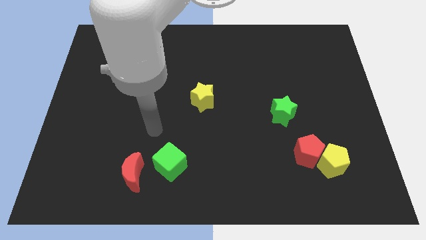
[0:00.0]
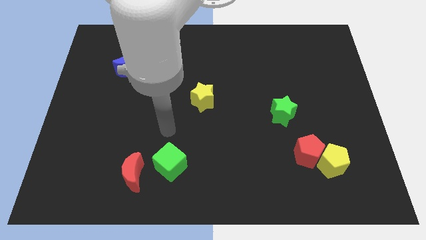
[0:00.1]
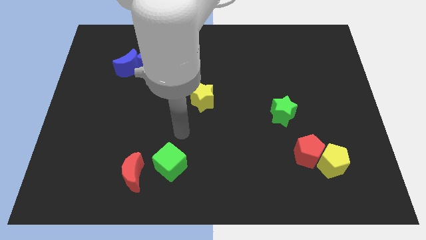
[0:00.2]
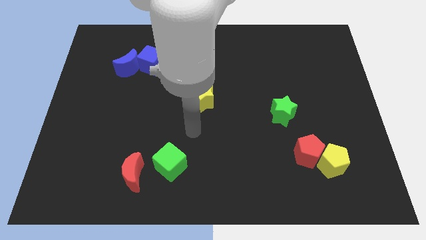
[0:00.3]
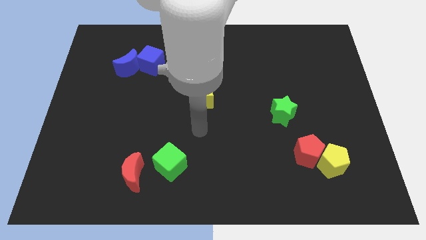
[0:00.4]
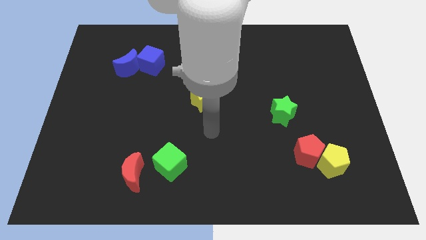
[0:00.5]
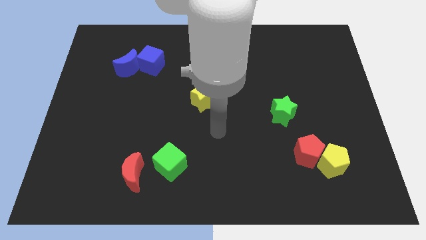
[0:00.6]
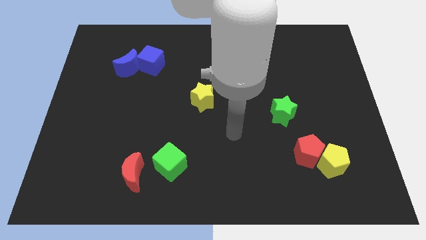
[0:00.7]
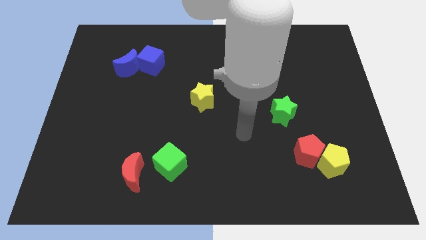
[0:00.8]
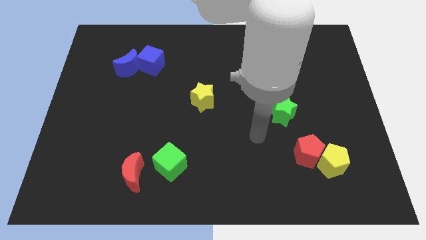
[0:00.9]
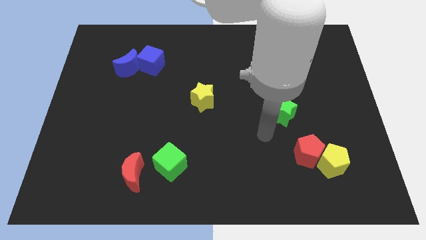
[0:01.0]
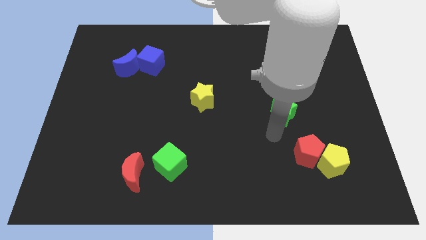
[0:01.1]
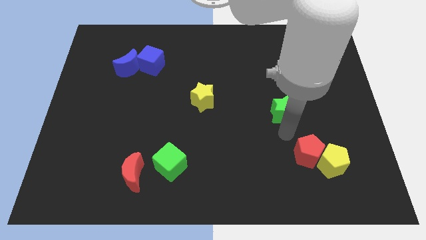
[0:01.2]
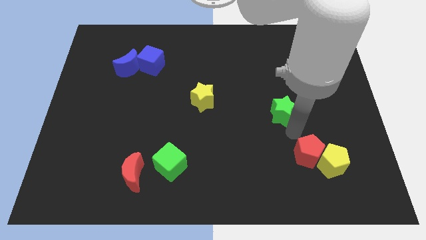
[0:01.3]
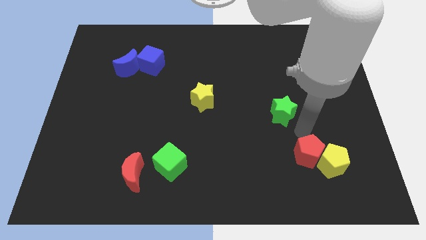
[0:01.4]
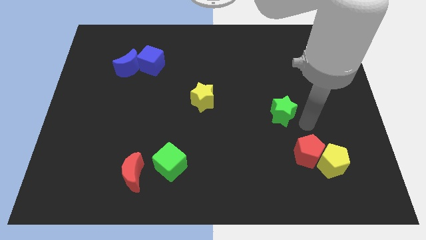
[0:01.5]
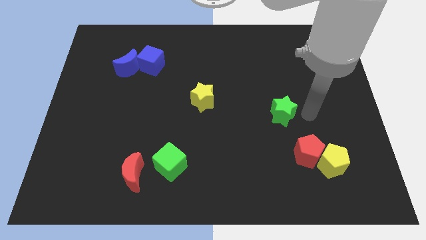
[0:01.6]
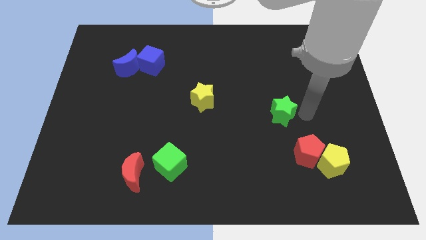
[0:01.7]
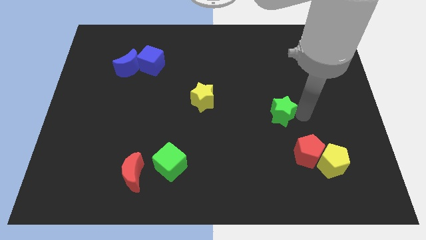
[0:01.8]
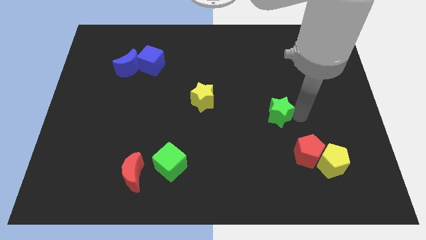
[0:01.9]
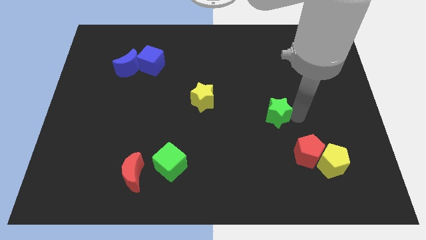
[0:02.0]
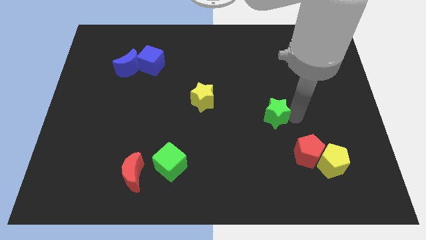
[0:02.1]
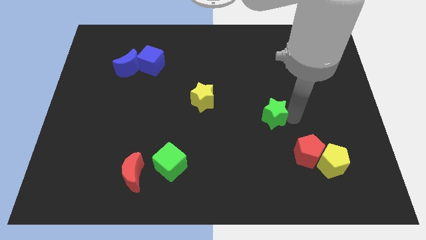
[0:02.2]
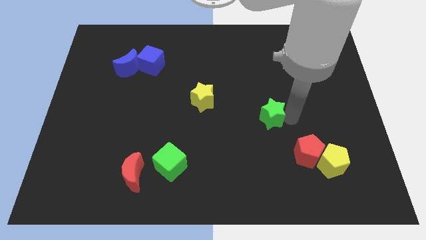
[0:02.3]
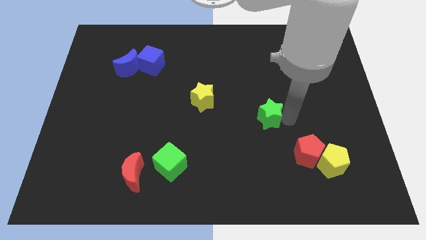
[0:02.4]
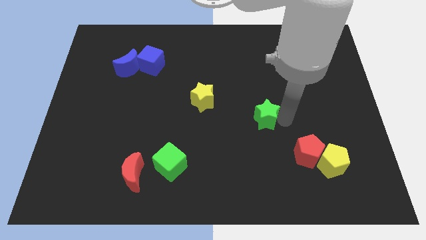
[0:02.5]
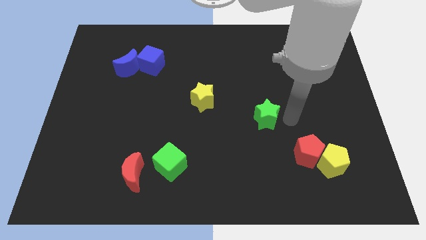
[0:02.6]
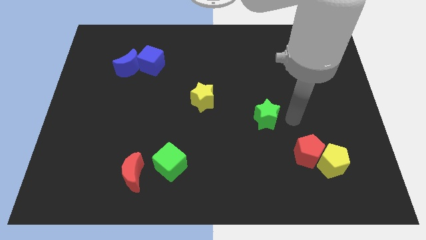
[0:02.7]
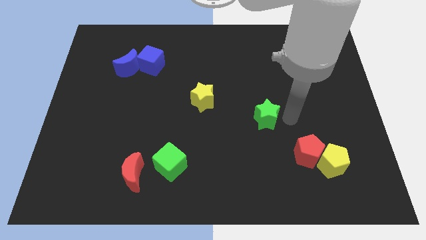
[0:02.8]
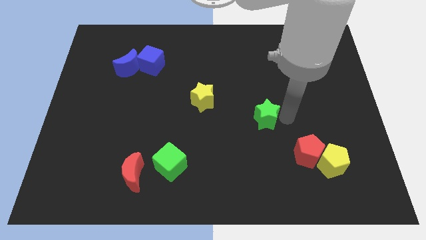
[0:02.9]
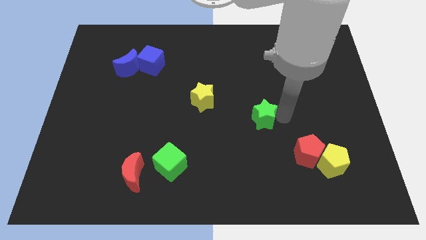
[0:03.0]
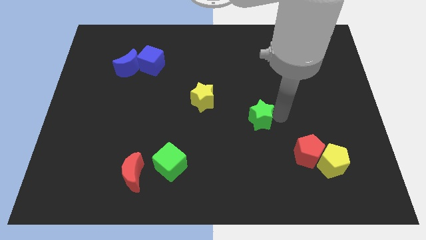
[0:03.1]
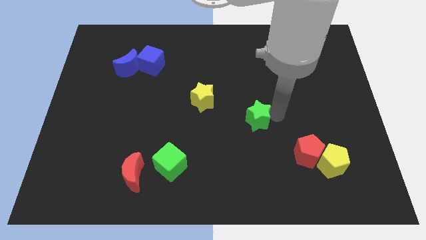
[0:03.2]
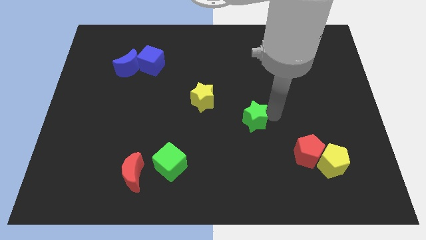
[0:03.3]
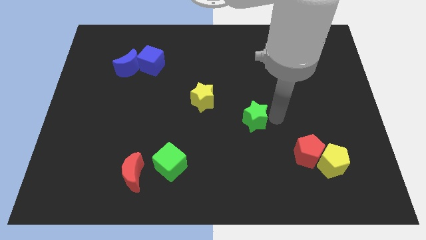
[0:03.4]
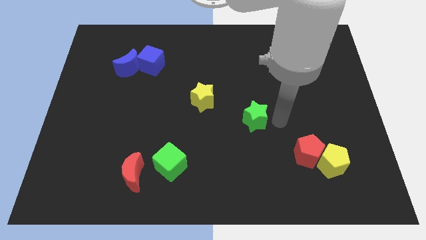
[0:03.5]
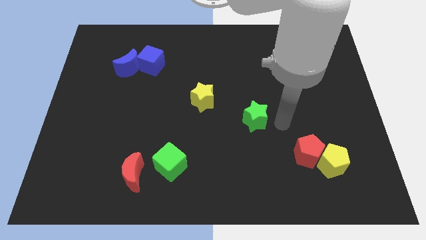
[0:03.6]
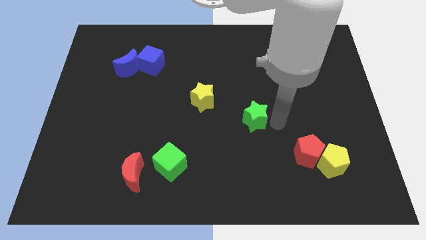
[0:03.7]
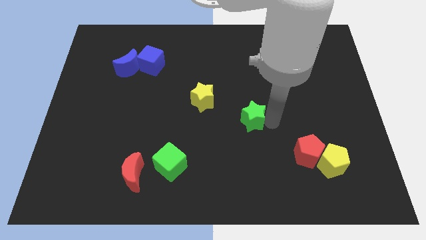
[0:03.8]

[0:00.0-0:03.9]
slightly push the green star left

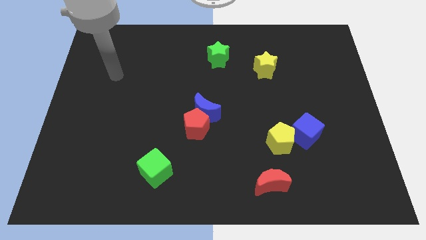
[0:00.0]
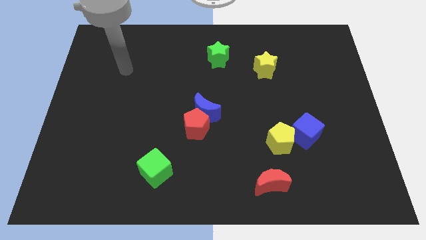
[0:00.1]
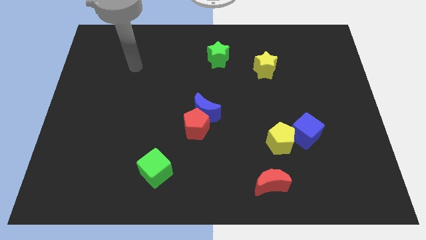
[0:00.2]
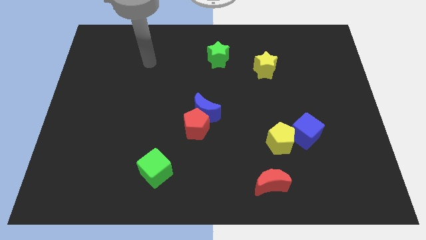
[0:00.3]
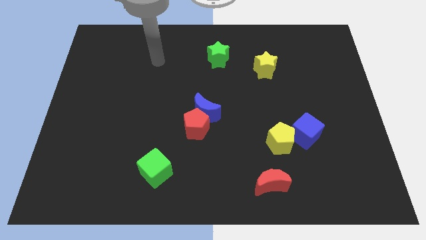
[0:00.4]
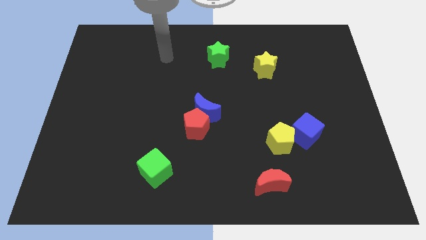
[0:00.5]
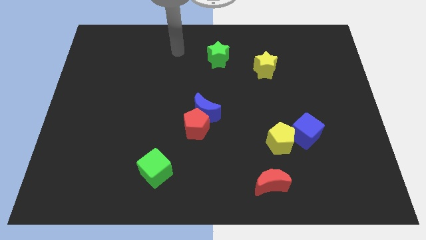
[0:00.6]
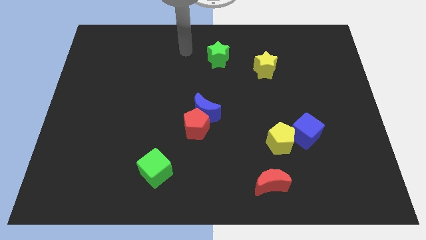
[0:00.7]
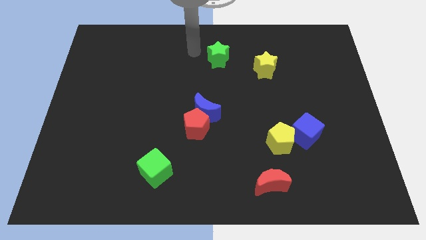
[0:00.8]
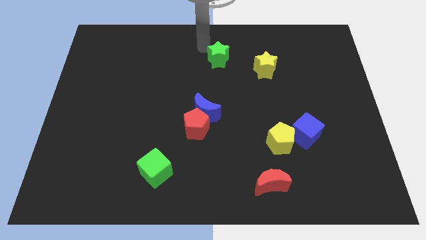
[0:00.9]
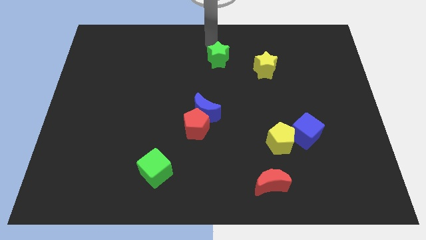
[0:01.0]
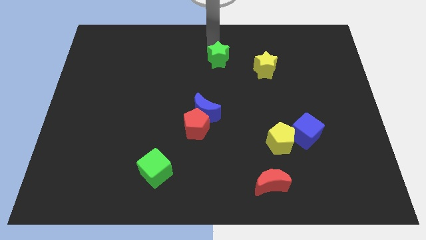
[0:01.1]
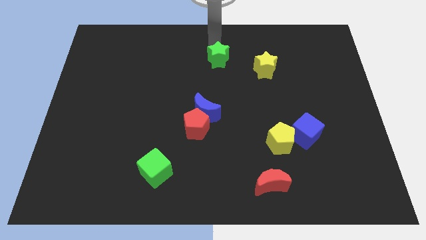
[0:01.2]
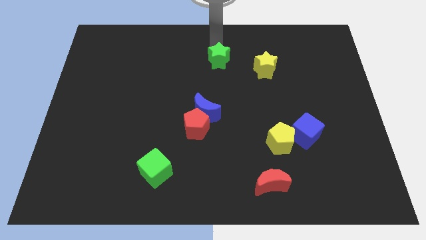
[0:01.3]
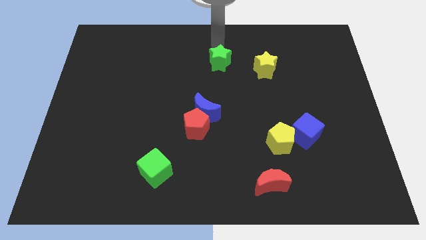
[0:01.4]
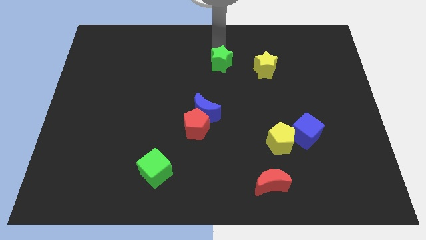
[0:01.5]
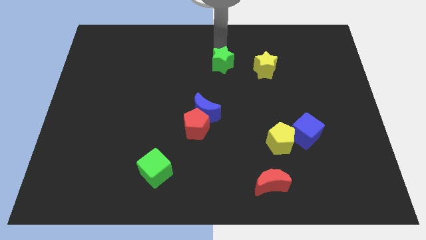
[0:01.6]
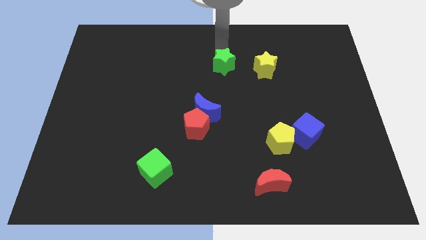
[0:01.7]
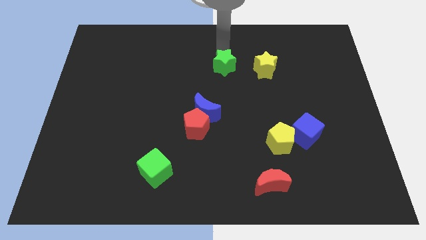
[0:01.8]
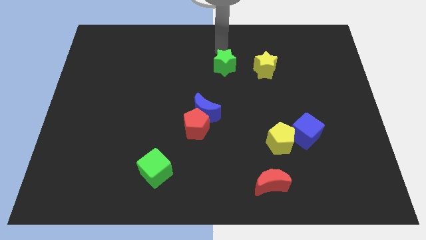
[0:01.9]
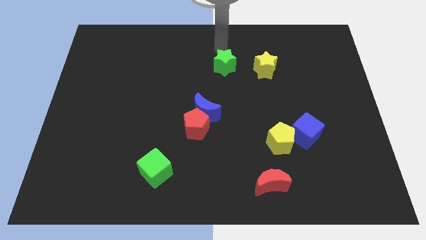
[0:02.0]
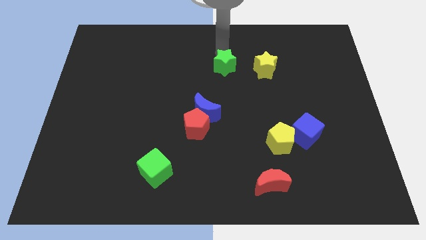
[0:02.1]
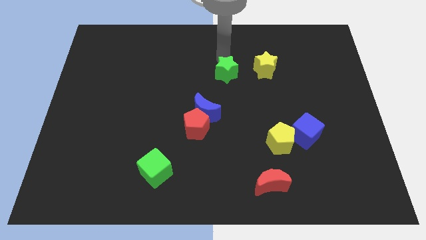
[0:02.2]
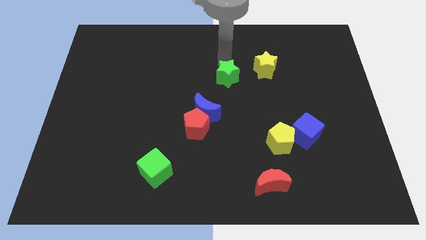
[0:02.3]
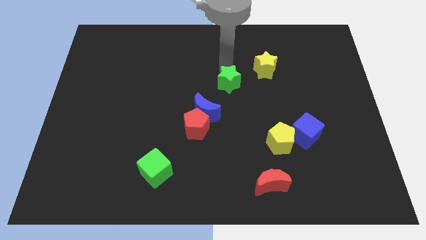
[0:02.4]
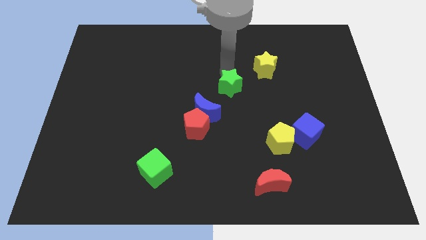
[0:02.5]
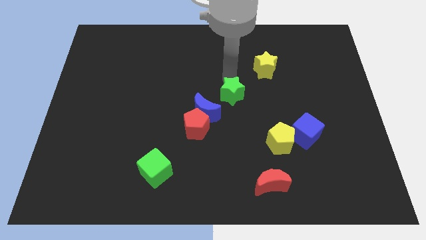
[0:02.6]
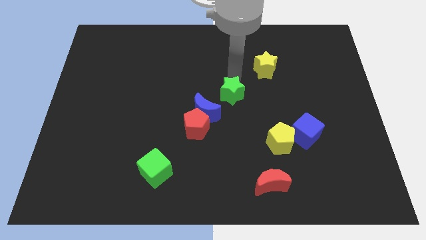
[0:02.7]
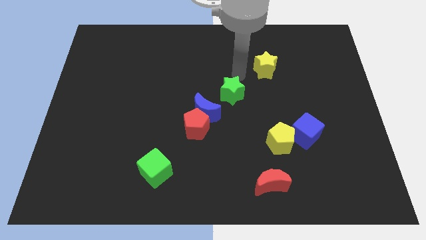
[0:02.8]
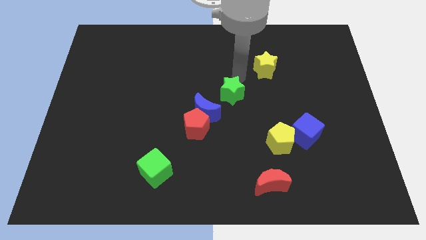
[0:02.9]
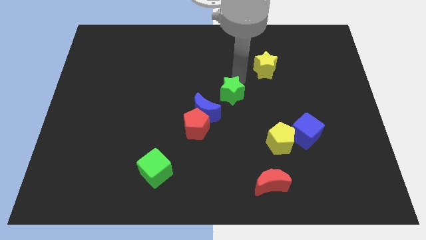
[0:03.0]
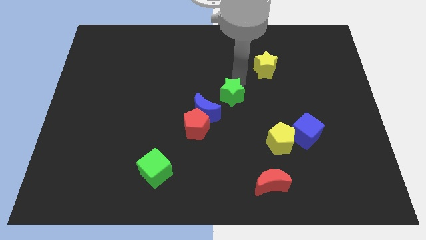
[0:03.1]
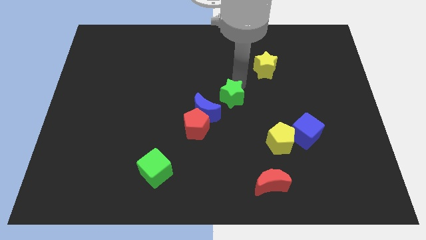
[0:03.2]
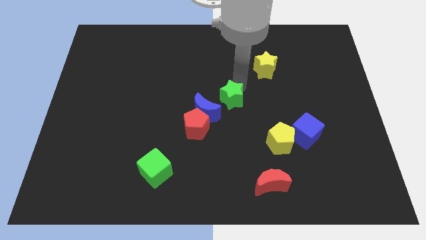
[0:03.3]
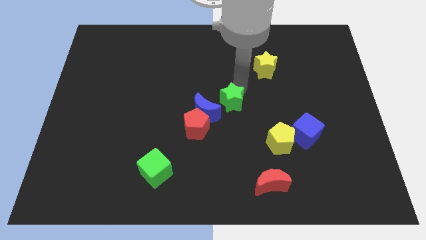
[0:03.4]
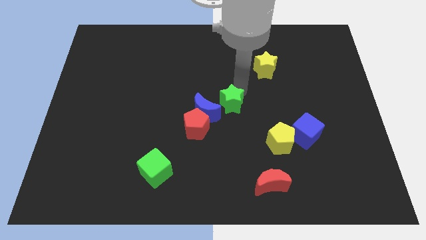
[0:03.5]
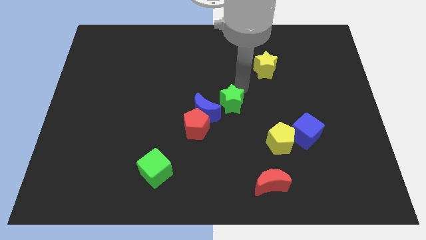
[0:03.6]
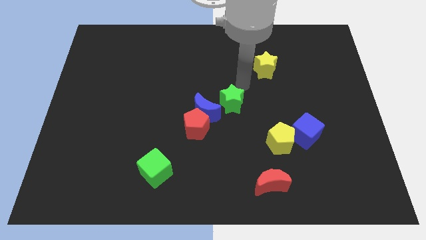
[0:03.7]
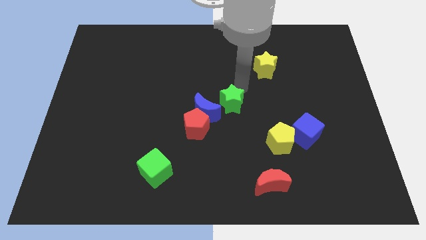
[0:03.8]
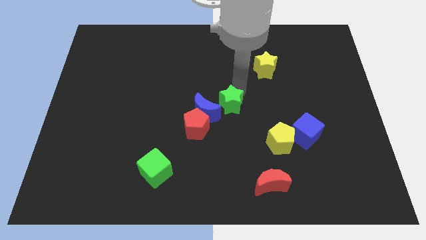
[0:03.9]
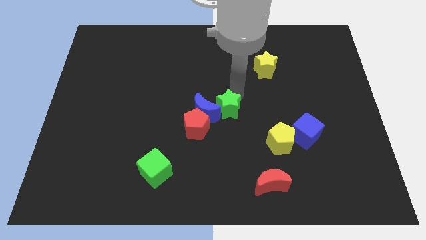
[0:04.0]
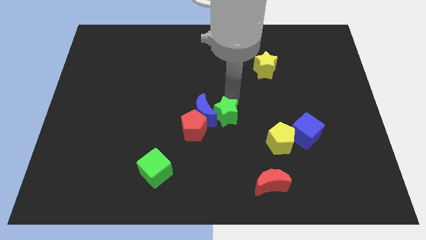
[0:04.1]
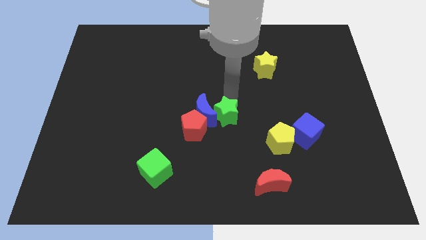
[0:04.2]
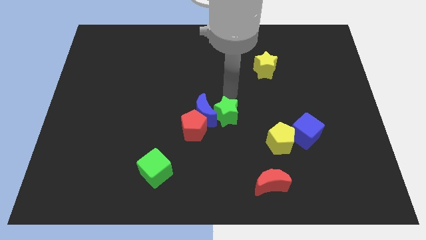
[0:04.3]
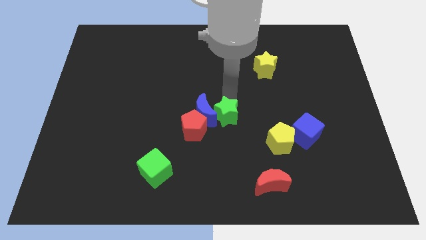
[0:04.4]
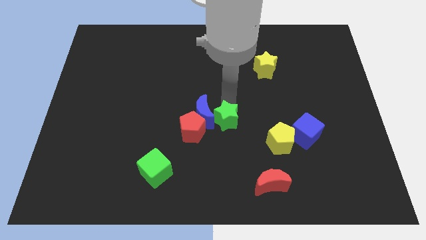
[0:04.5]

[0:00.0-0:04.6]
push the green star downwards
